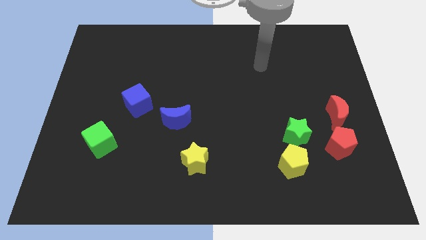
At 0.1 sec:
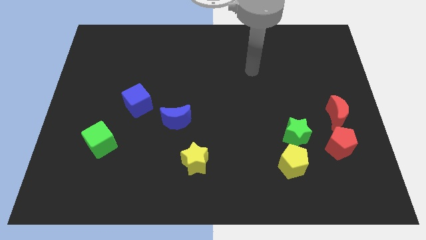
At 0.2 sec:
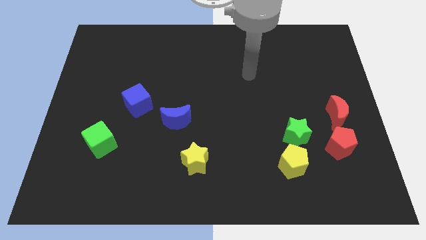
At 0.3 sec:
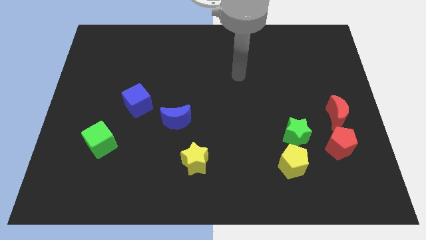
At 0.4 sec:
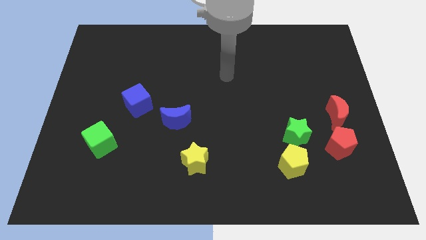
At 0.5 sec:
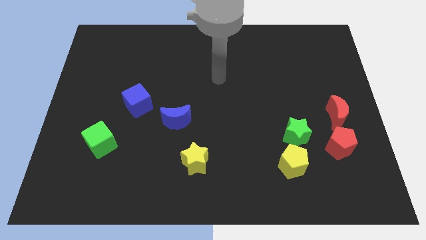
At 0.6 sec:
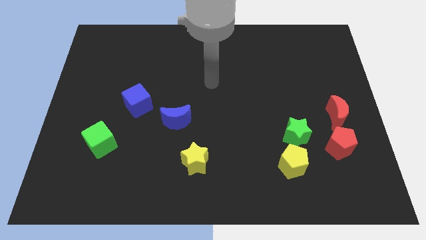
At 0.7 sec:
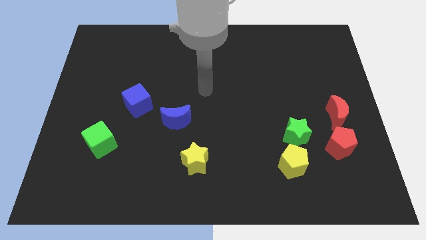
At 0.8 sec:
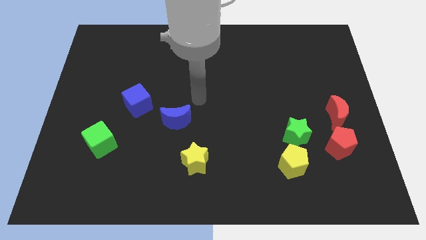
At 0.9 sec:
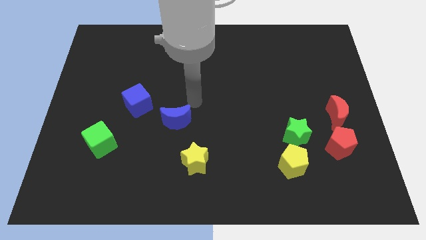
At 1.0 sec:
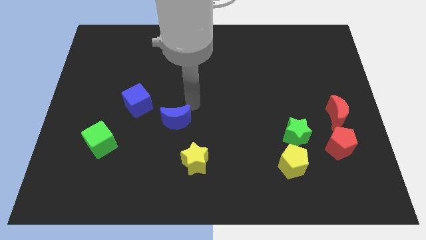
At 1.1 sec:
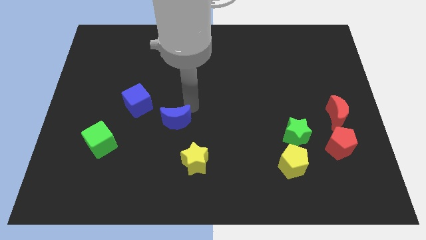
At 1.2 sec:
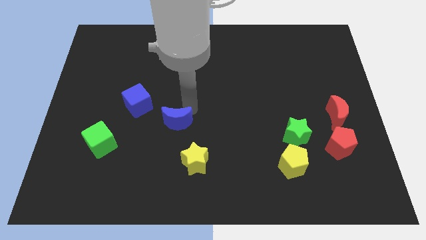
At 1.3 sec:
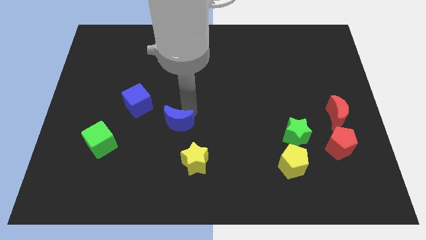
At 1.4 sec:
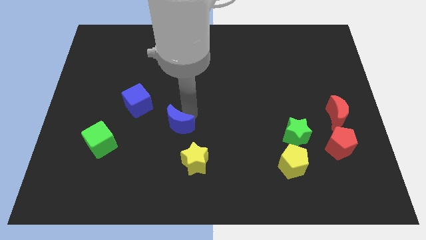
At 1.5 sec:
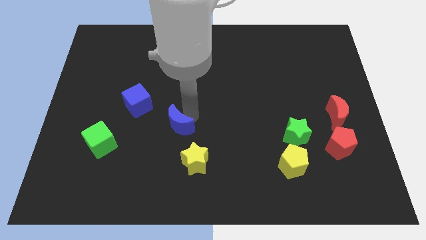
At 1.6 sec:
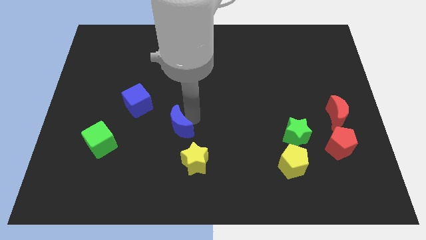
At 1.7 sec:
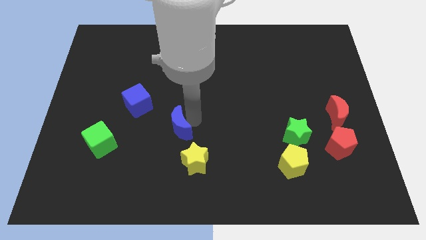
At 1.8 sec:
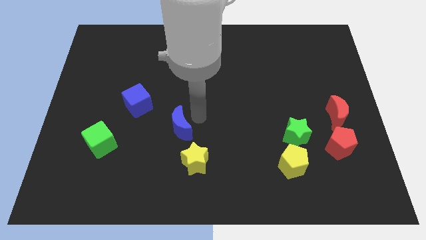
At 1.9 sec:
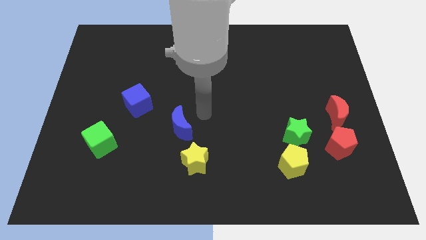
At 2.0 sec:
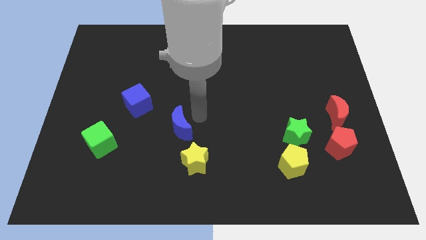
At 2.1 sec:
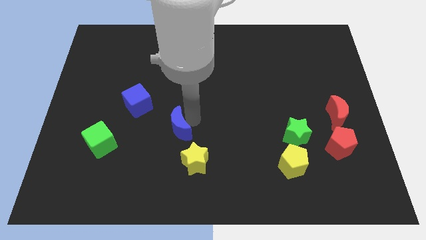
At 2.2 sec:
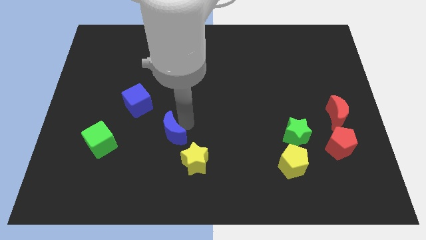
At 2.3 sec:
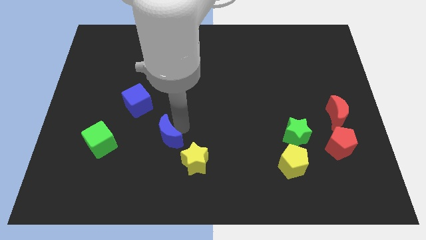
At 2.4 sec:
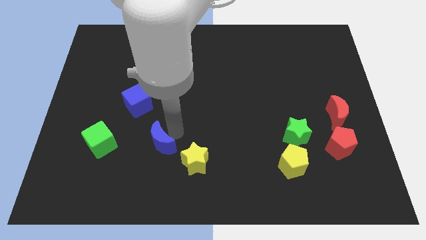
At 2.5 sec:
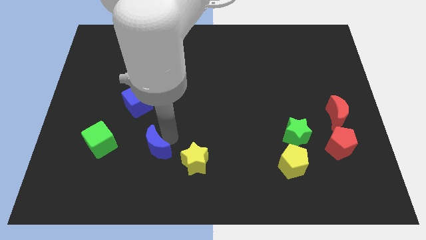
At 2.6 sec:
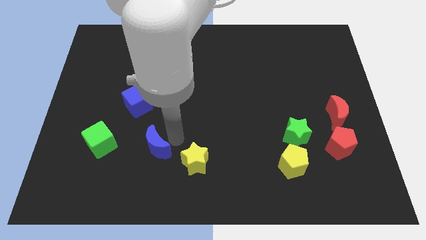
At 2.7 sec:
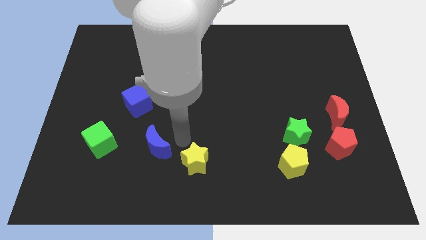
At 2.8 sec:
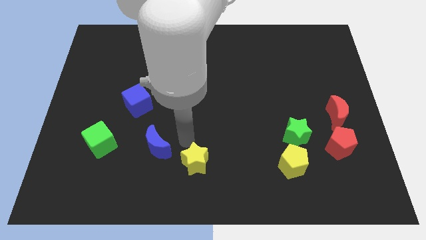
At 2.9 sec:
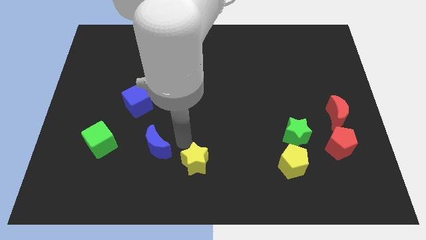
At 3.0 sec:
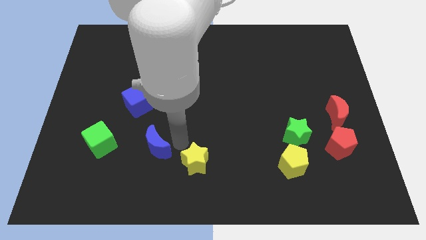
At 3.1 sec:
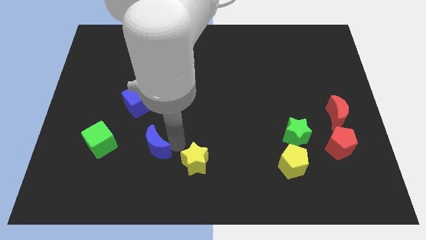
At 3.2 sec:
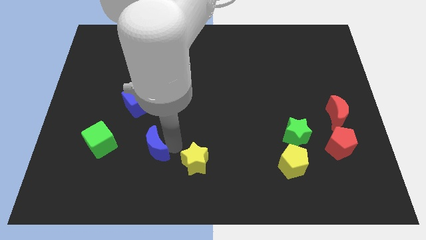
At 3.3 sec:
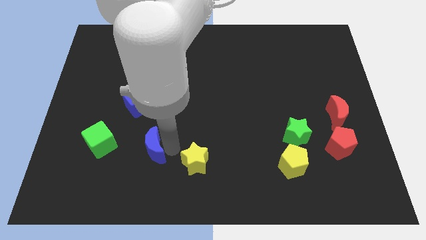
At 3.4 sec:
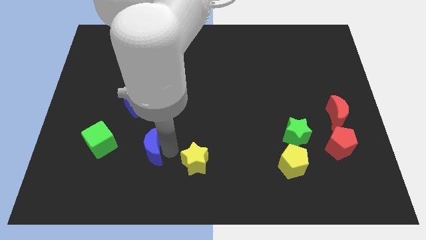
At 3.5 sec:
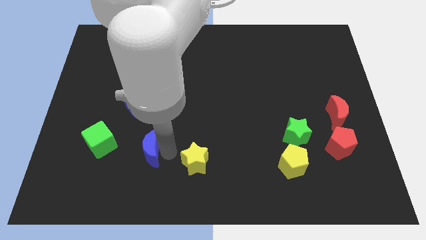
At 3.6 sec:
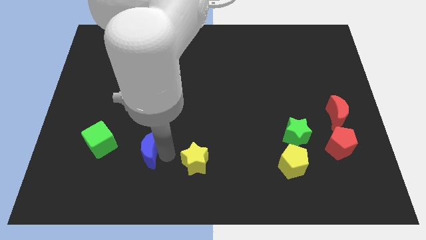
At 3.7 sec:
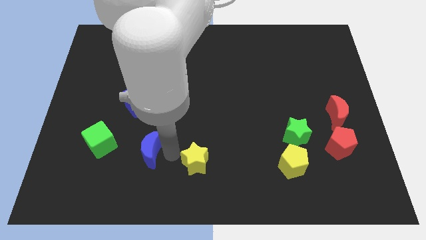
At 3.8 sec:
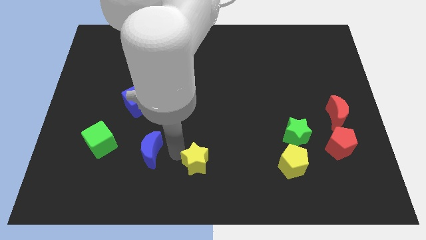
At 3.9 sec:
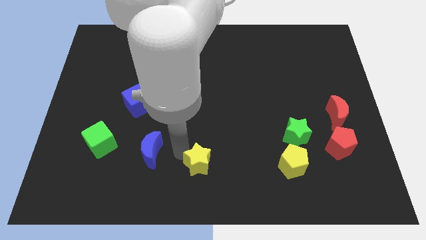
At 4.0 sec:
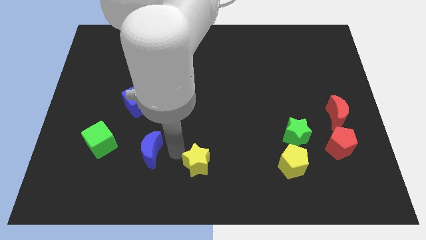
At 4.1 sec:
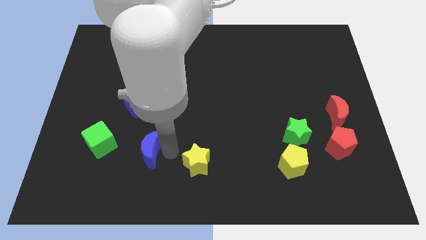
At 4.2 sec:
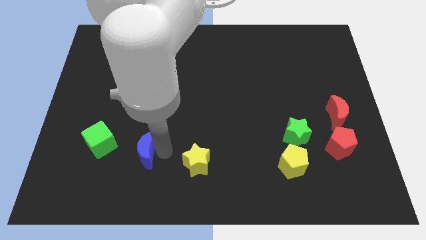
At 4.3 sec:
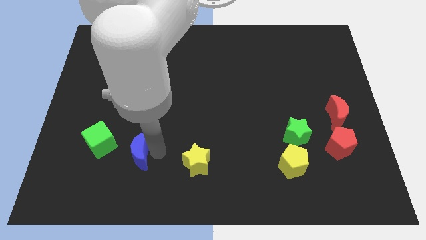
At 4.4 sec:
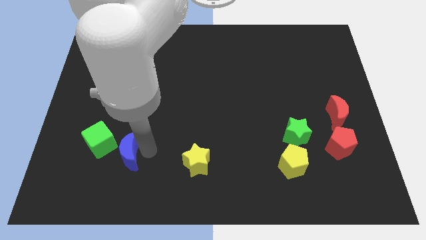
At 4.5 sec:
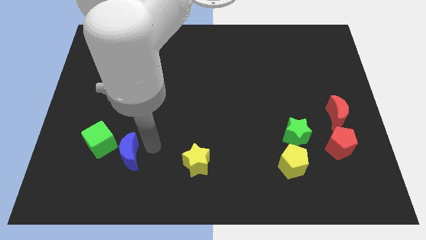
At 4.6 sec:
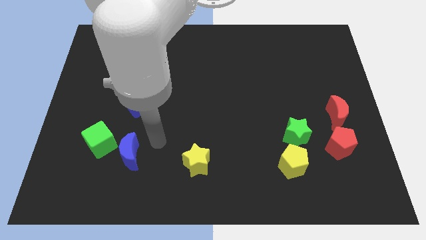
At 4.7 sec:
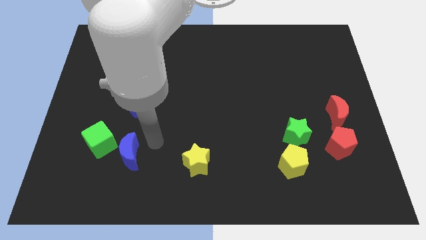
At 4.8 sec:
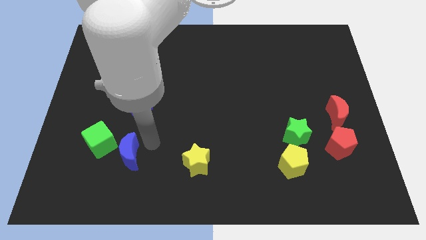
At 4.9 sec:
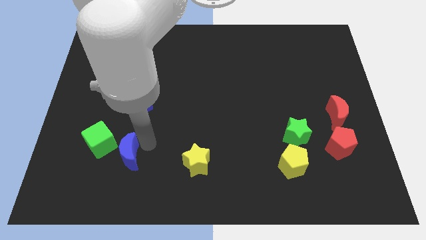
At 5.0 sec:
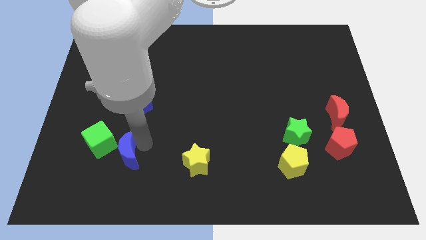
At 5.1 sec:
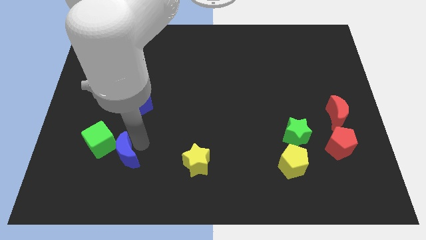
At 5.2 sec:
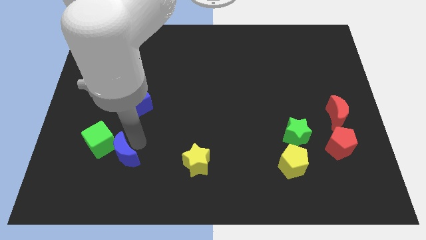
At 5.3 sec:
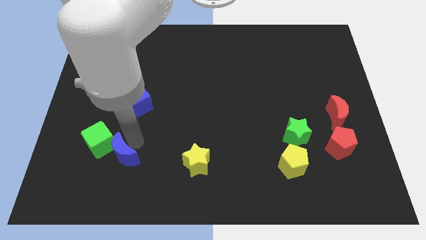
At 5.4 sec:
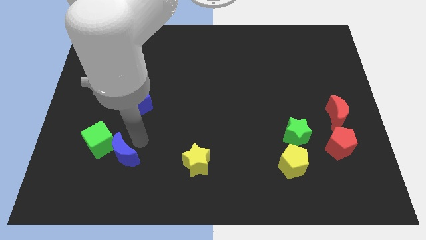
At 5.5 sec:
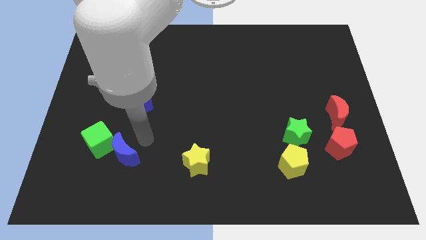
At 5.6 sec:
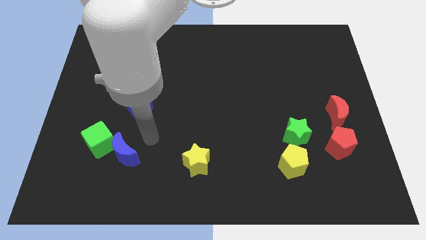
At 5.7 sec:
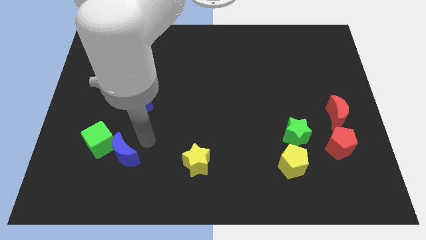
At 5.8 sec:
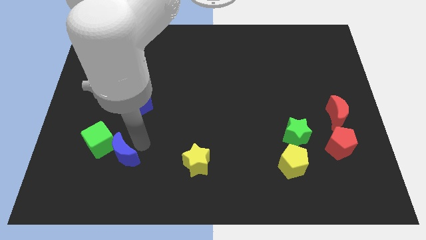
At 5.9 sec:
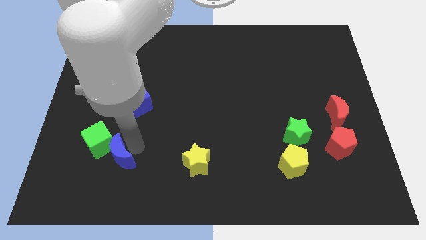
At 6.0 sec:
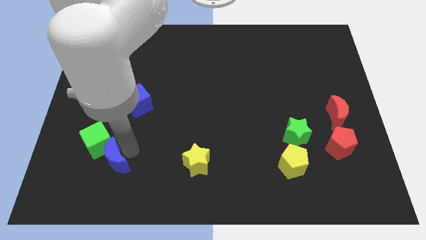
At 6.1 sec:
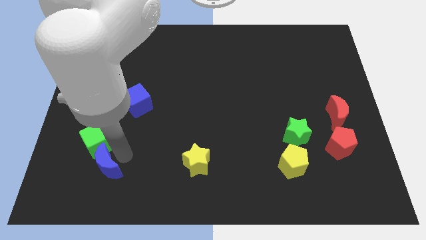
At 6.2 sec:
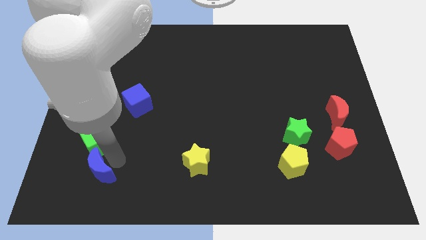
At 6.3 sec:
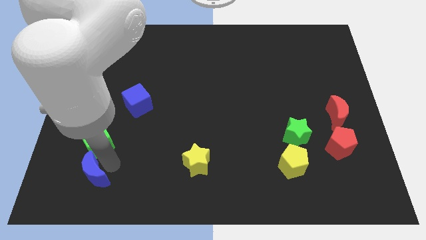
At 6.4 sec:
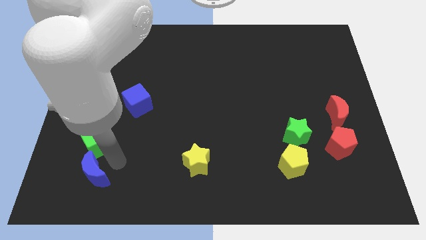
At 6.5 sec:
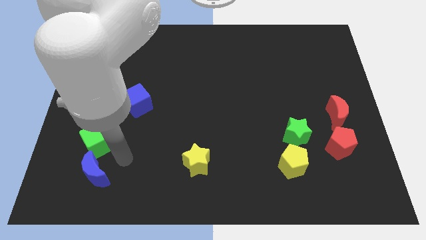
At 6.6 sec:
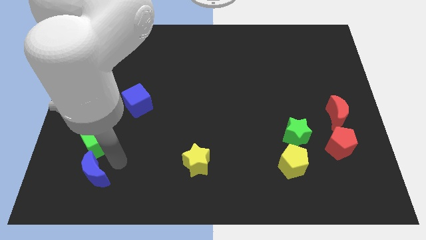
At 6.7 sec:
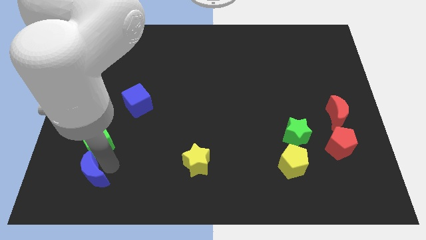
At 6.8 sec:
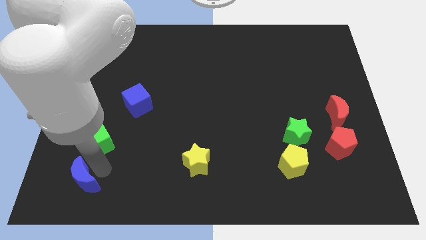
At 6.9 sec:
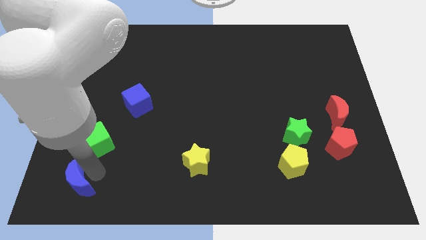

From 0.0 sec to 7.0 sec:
push the blue moon to the bottom left
